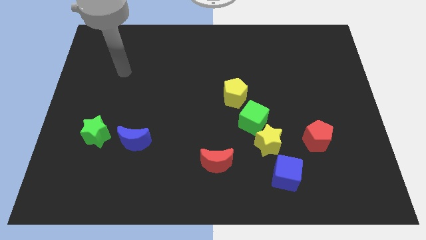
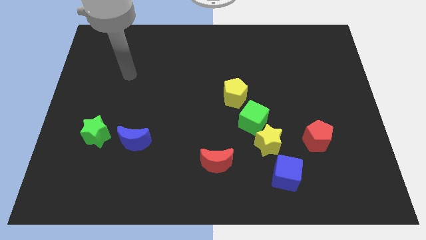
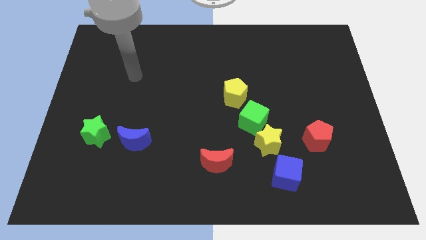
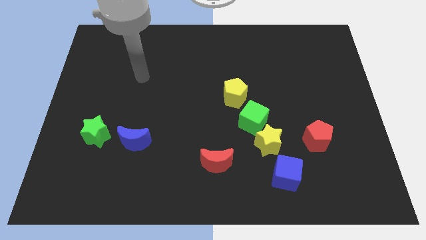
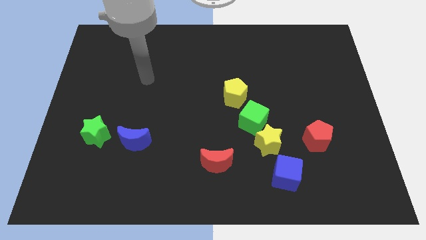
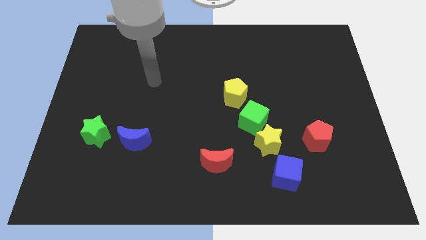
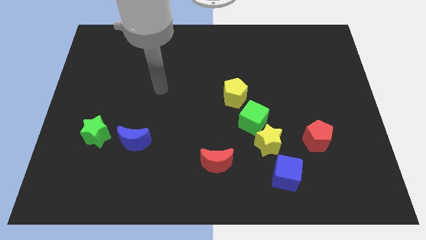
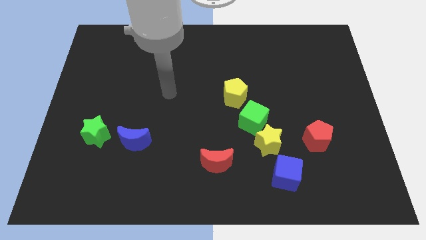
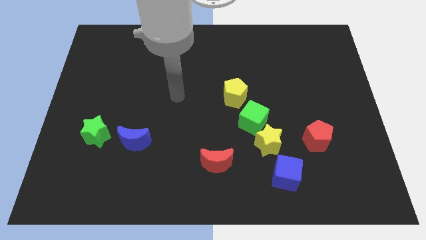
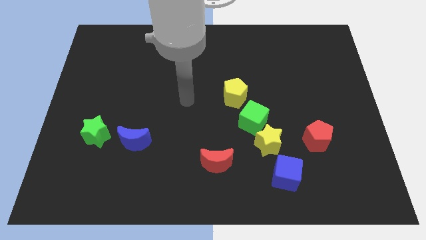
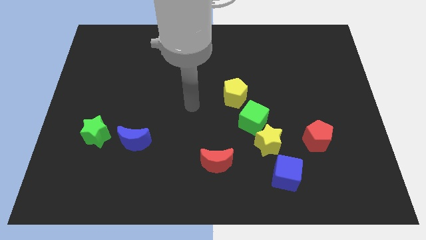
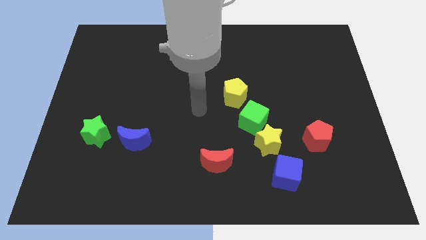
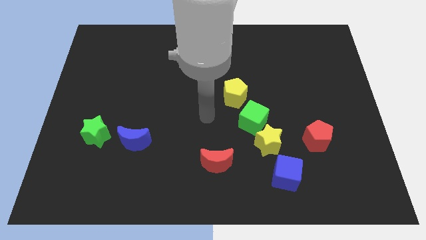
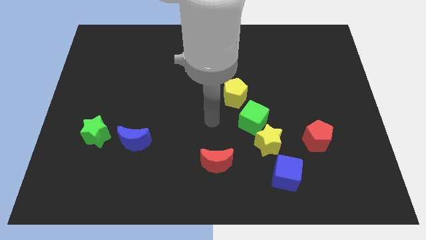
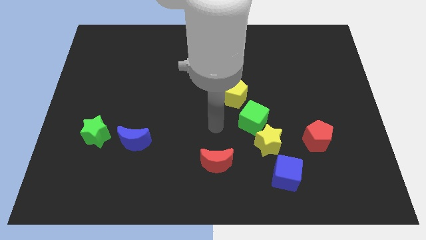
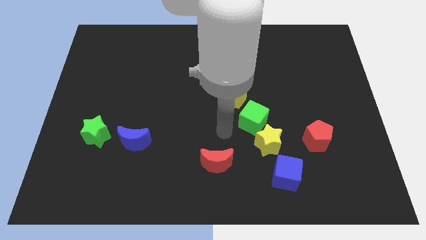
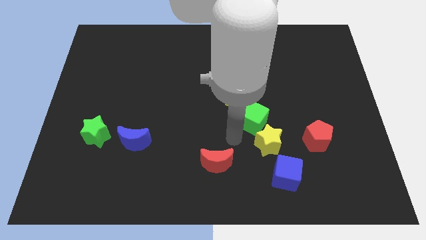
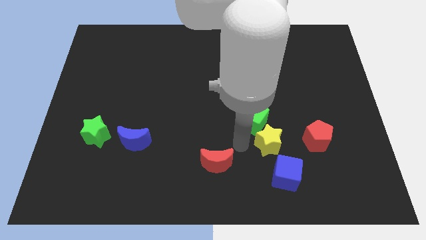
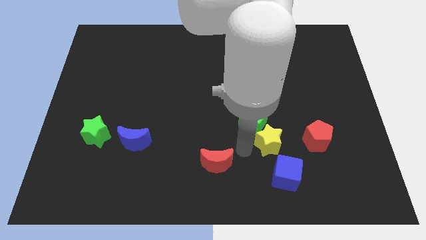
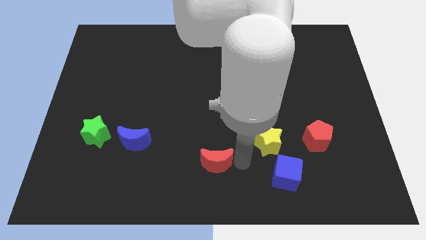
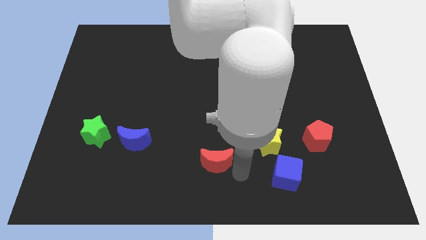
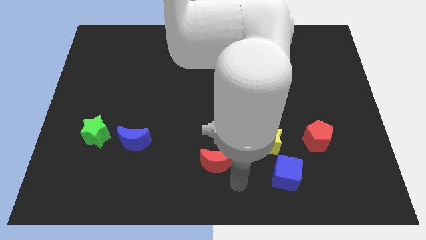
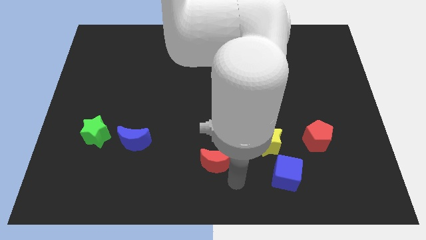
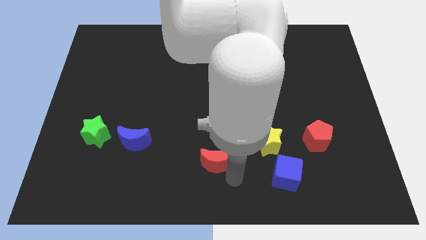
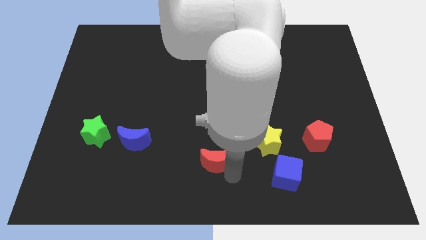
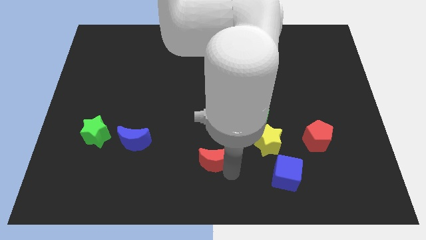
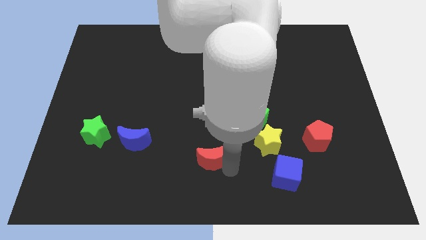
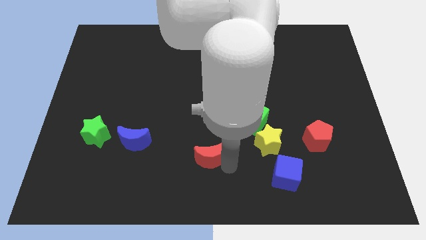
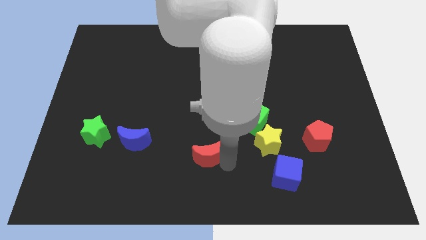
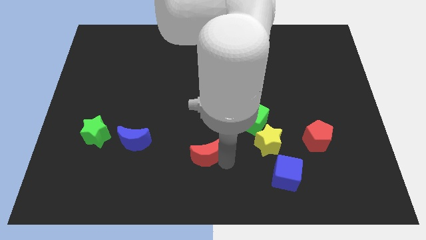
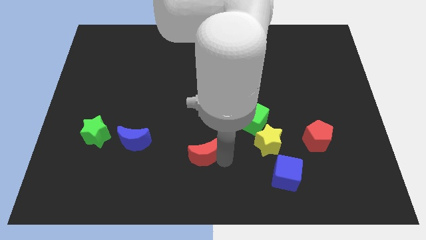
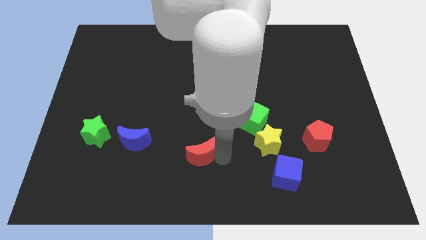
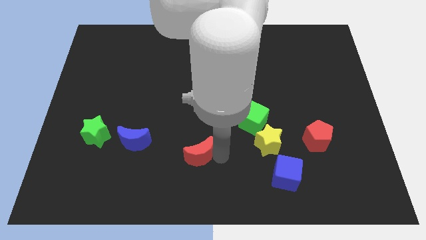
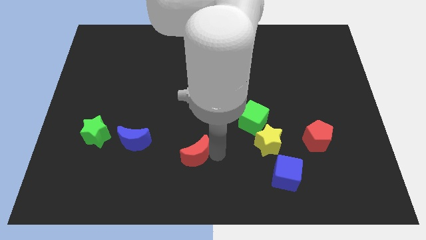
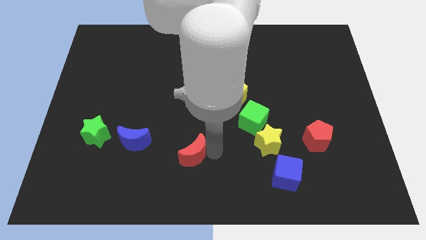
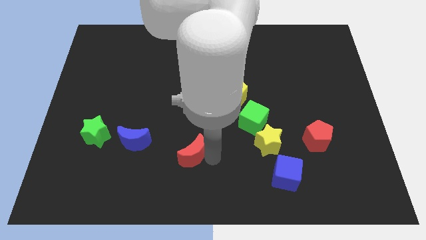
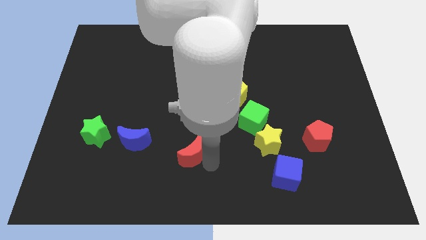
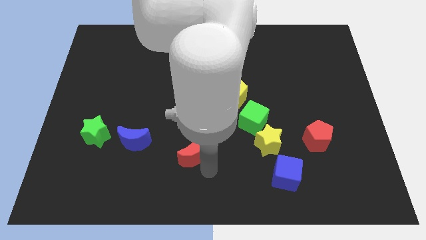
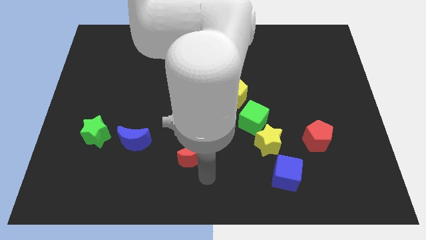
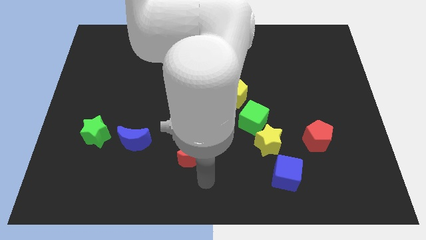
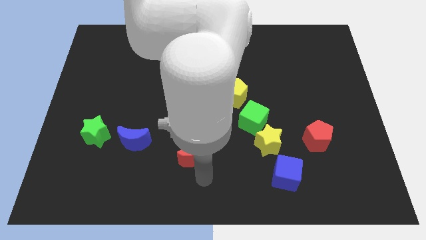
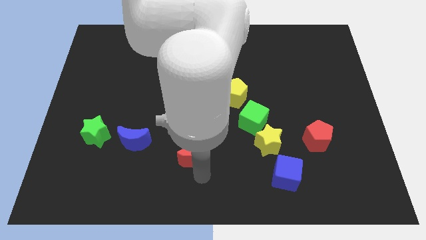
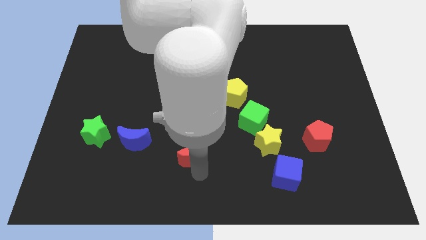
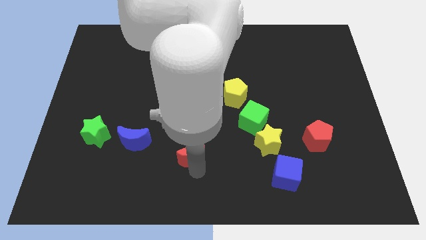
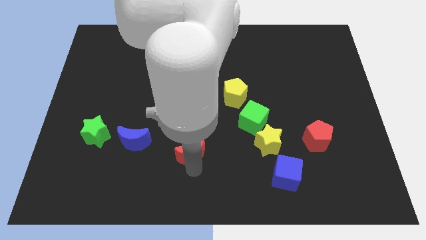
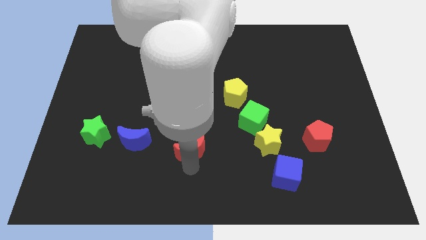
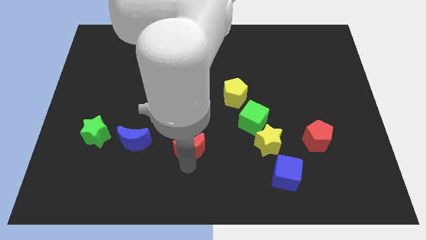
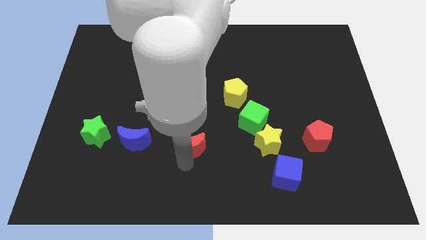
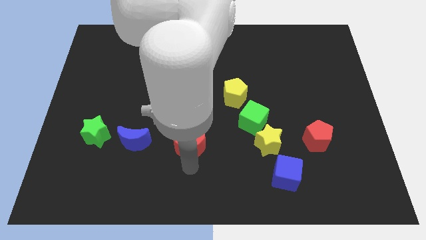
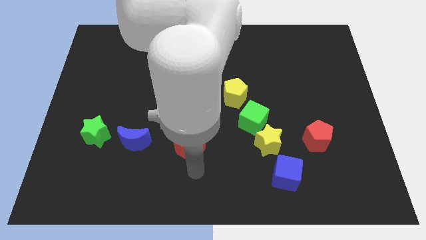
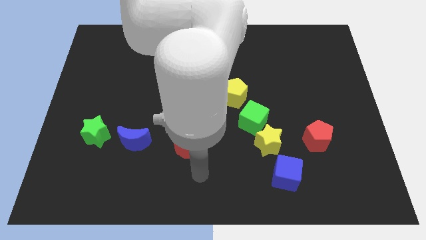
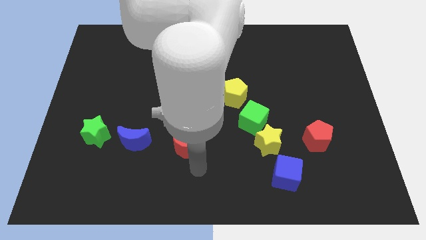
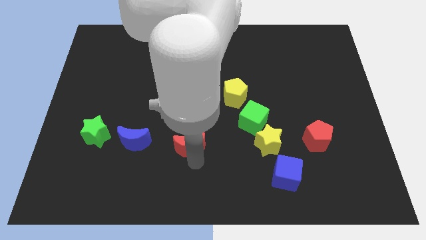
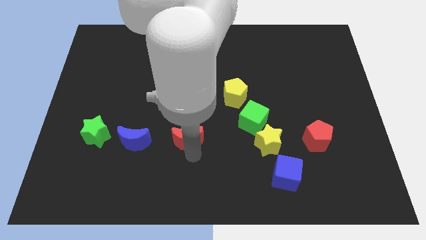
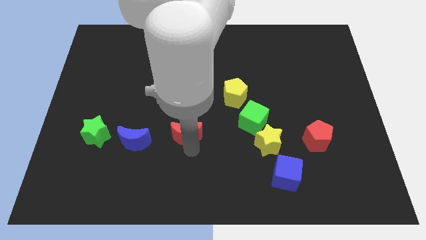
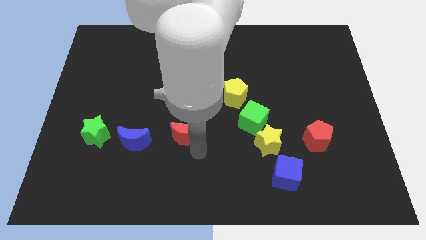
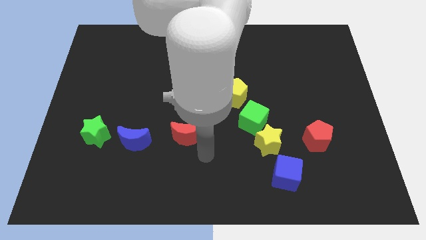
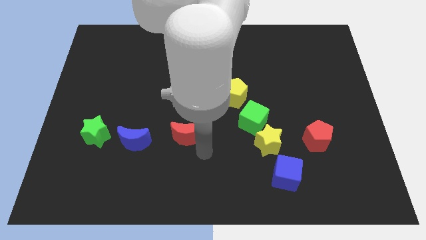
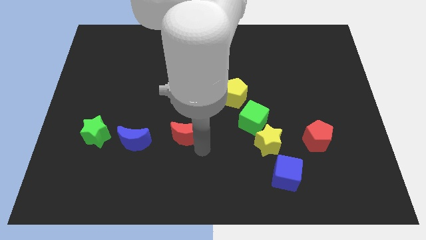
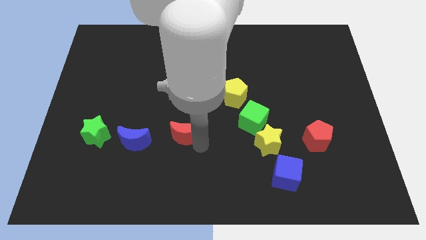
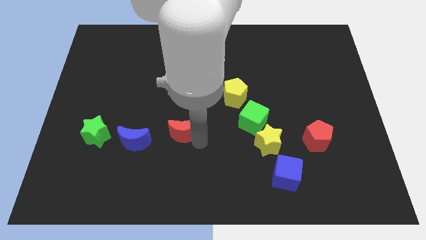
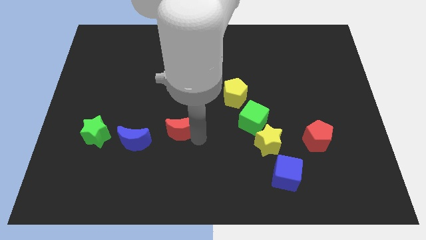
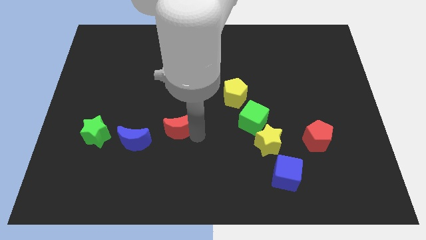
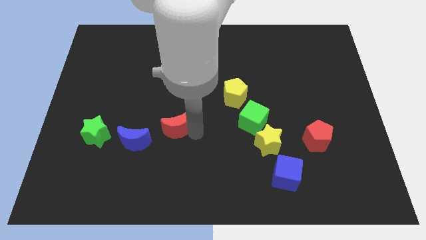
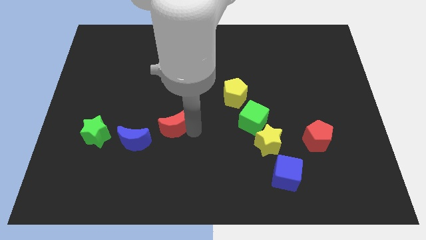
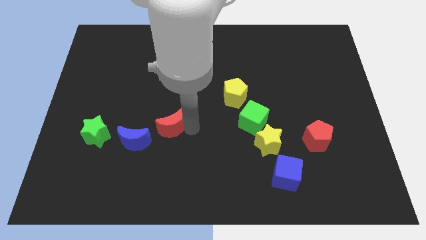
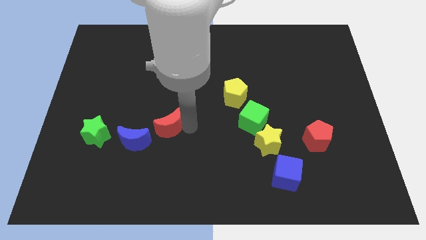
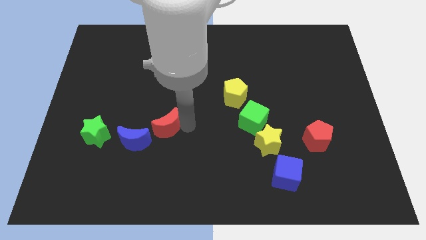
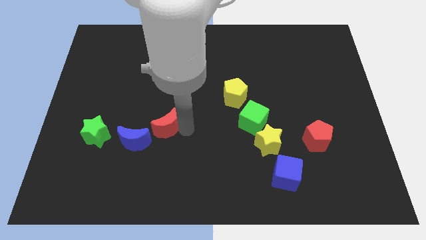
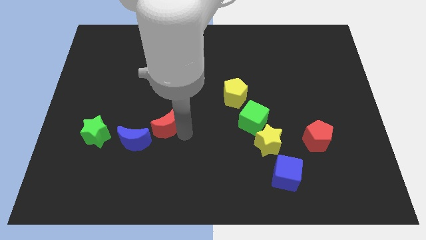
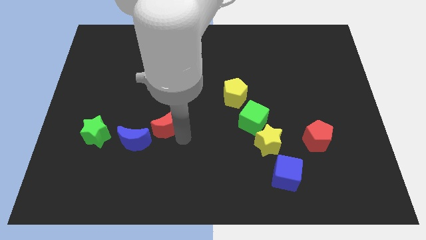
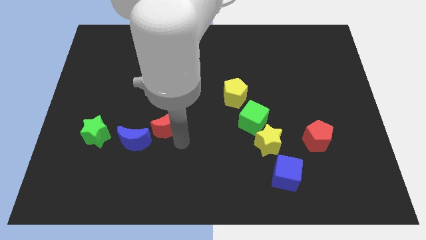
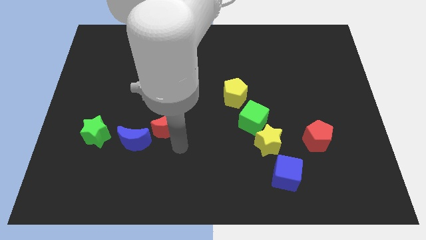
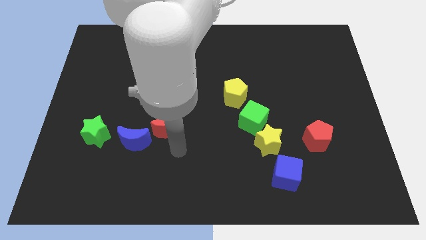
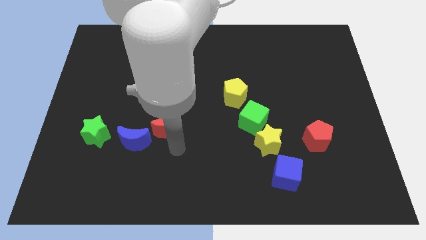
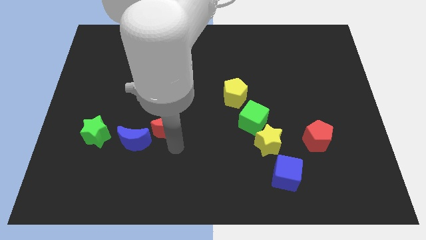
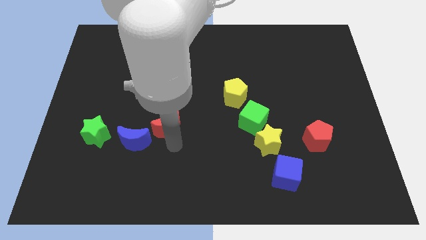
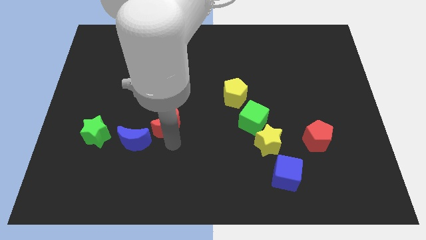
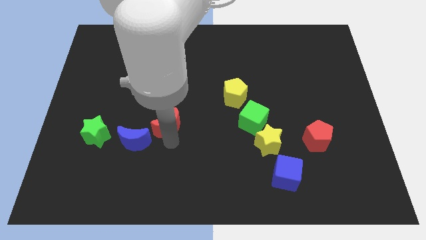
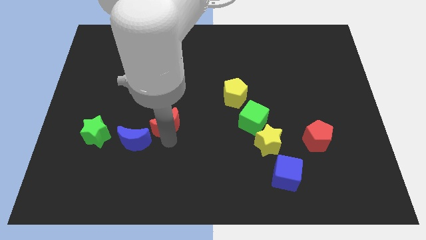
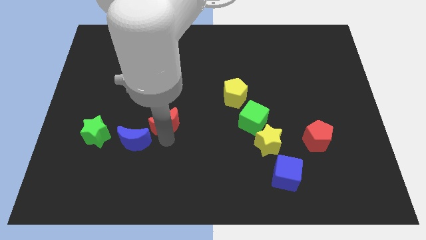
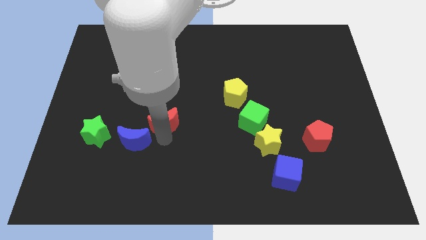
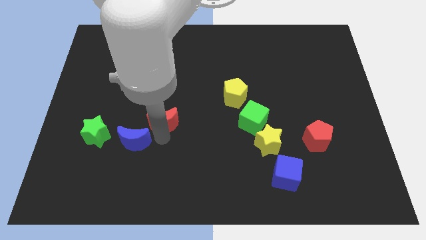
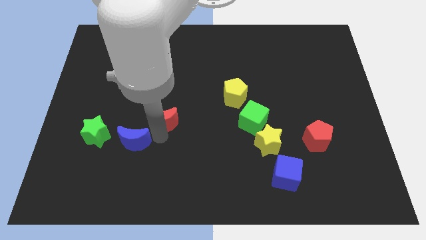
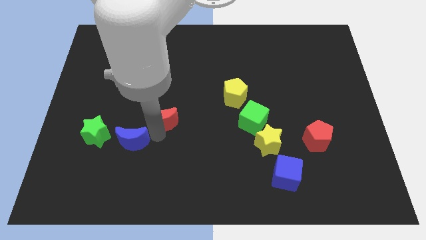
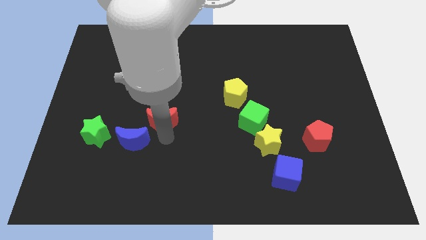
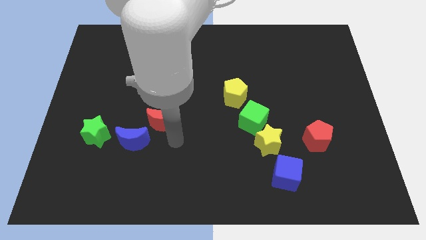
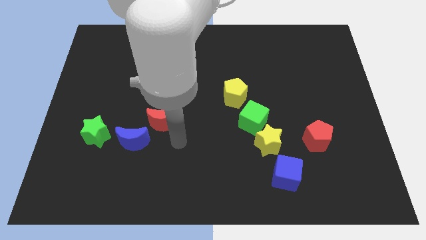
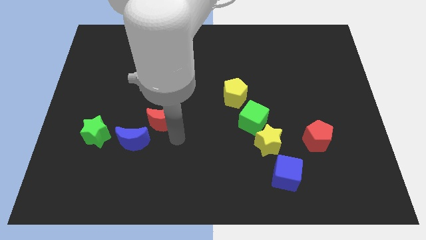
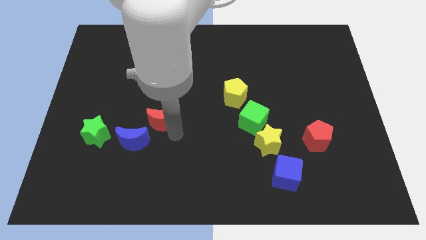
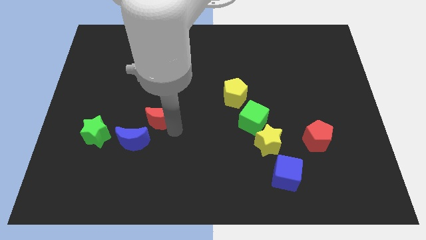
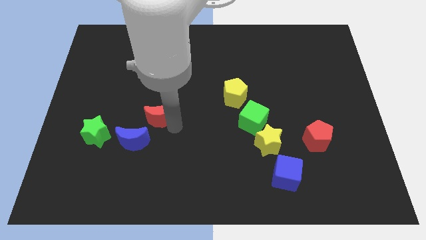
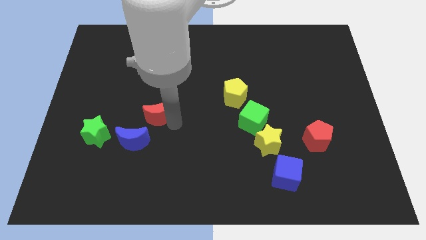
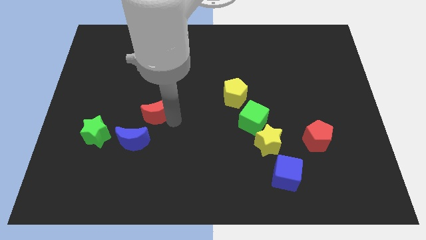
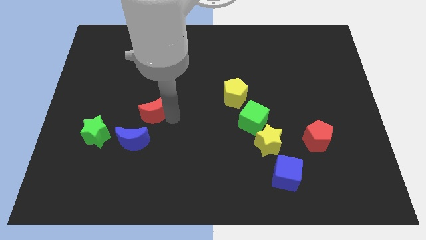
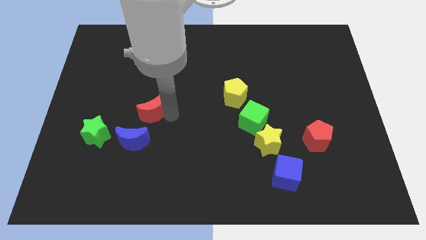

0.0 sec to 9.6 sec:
push the red moon up and then to the left
